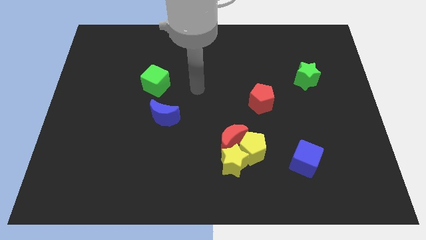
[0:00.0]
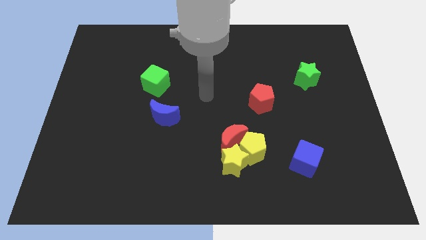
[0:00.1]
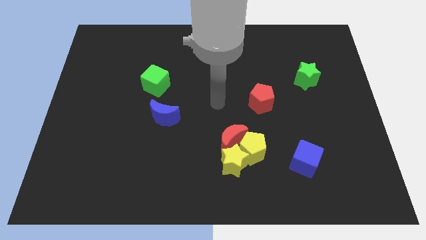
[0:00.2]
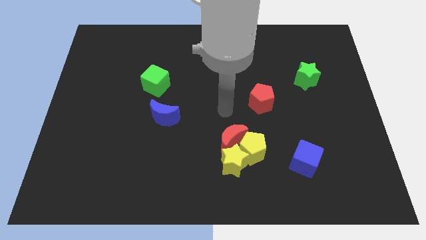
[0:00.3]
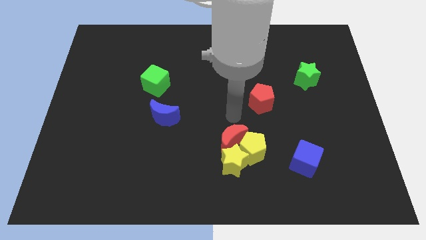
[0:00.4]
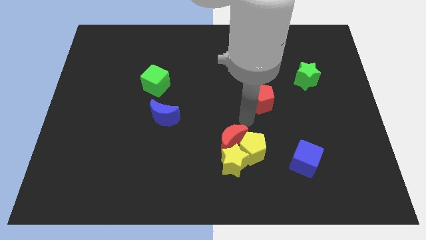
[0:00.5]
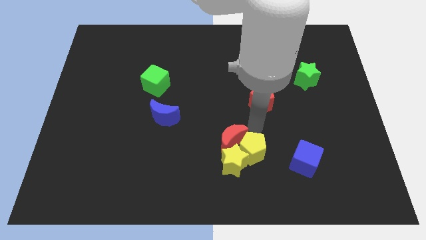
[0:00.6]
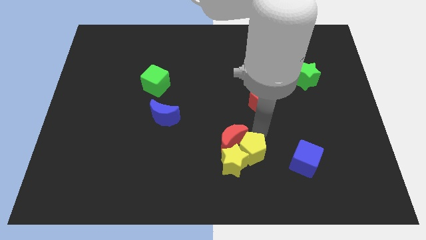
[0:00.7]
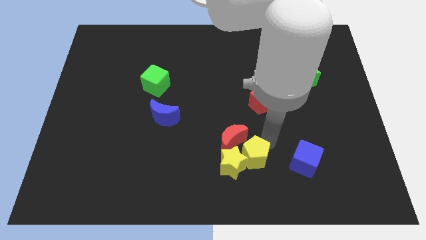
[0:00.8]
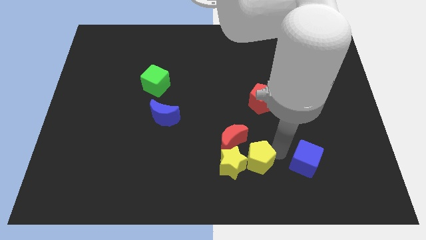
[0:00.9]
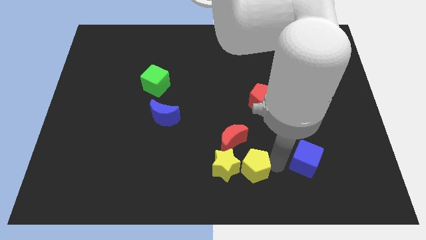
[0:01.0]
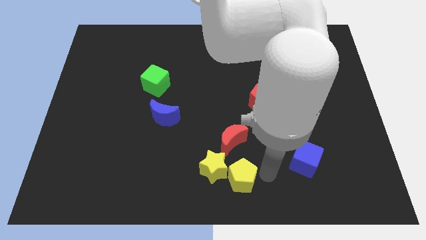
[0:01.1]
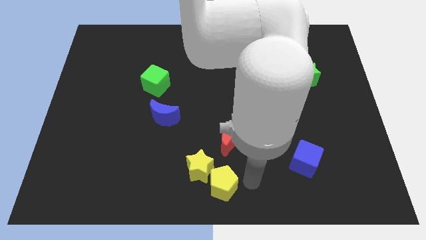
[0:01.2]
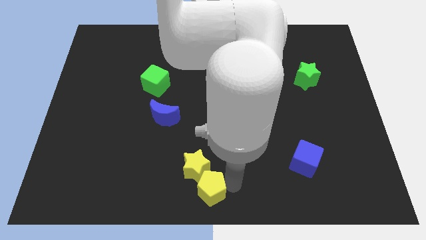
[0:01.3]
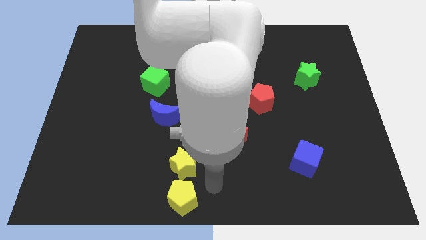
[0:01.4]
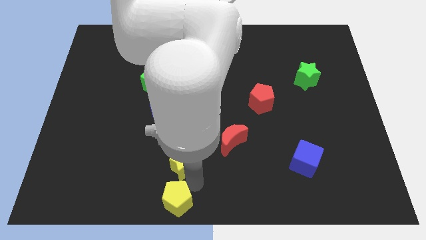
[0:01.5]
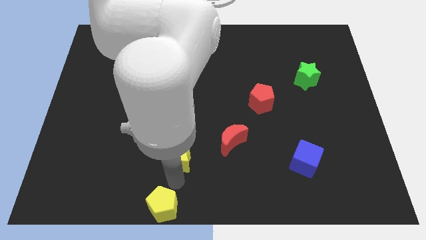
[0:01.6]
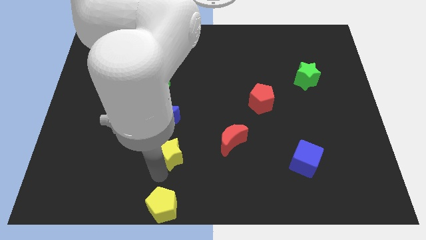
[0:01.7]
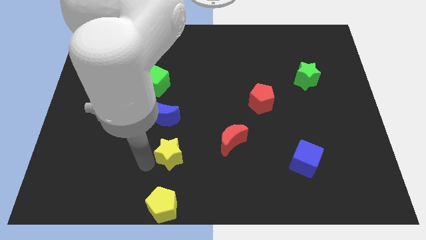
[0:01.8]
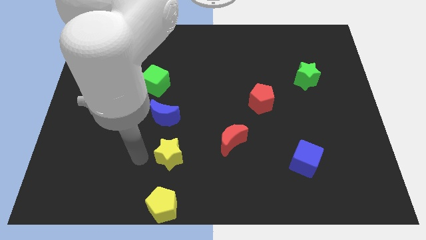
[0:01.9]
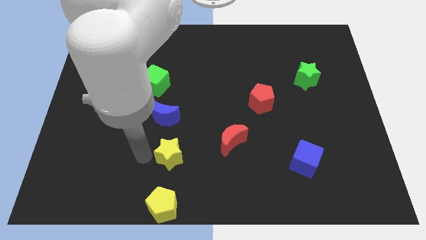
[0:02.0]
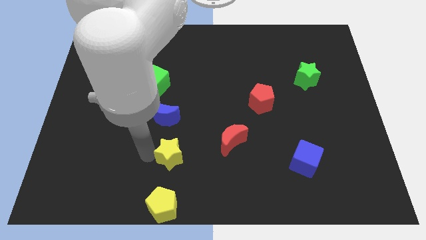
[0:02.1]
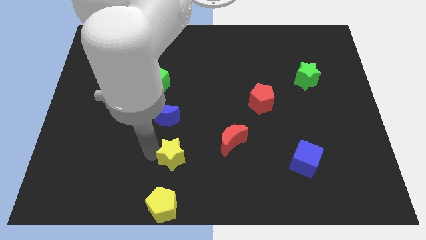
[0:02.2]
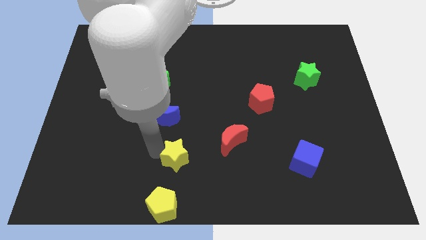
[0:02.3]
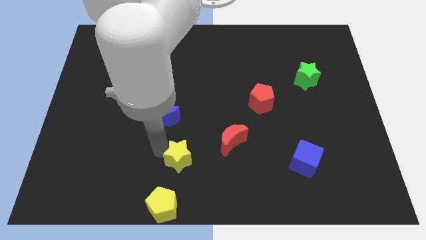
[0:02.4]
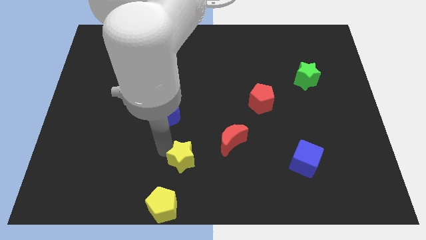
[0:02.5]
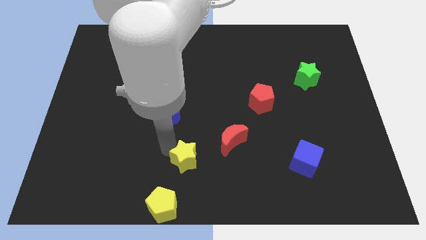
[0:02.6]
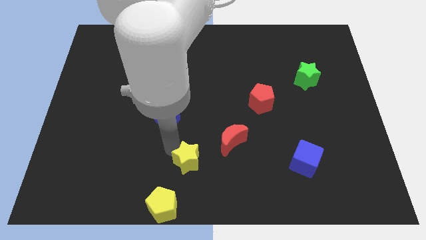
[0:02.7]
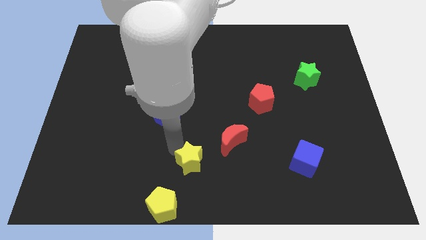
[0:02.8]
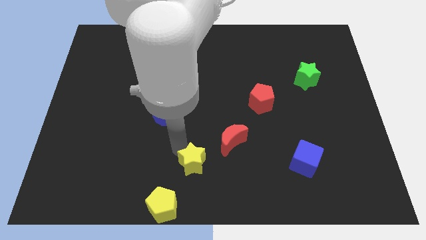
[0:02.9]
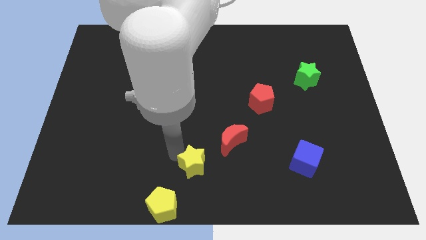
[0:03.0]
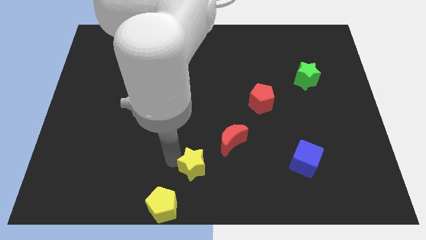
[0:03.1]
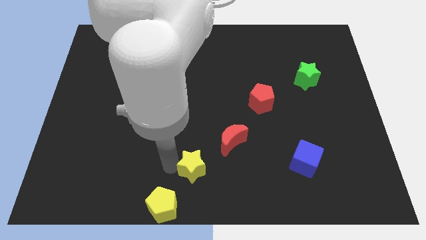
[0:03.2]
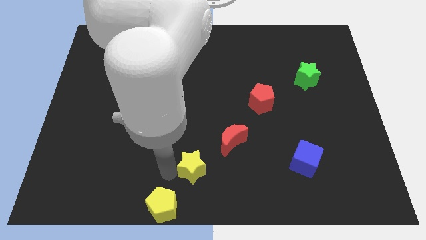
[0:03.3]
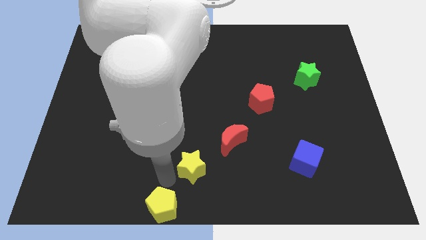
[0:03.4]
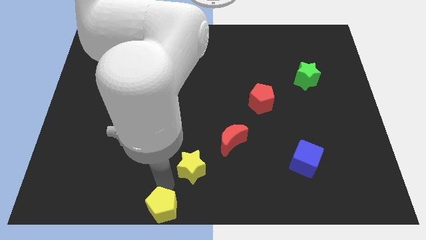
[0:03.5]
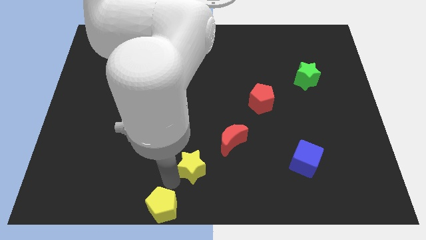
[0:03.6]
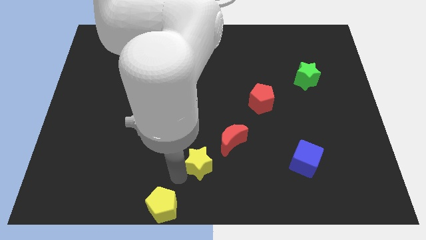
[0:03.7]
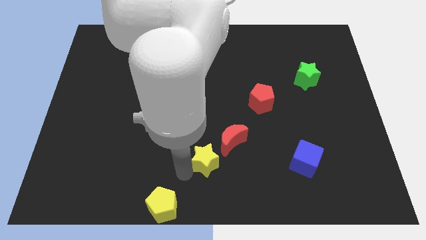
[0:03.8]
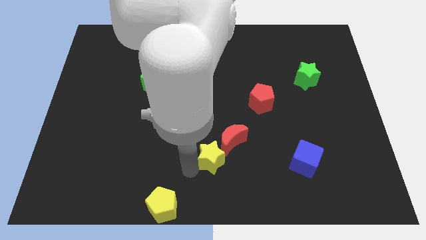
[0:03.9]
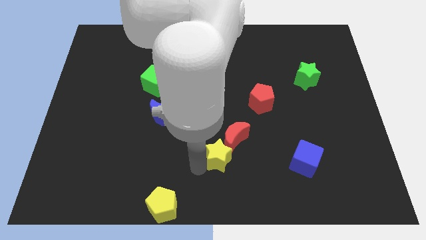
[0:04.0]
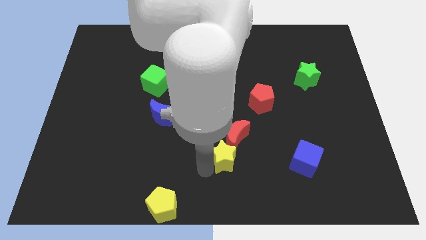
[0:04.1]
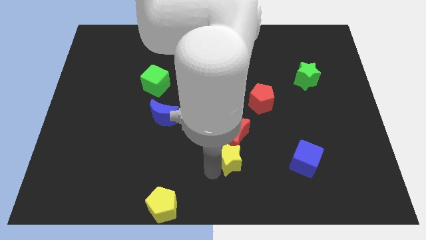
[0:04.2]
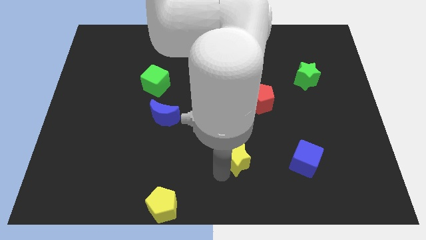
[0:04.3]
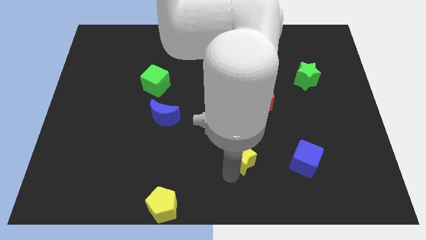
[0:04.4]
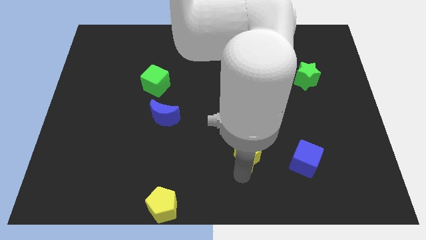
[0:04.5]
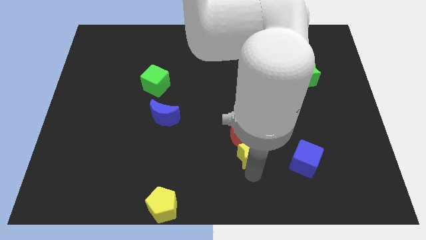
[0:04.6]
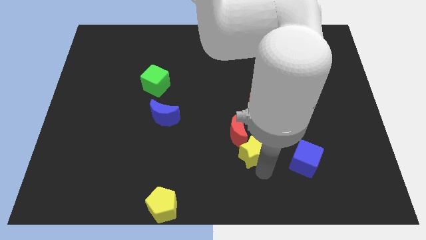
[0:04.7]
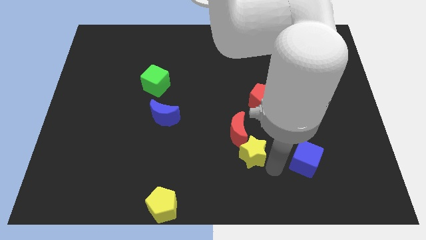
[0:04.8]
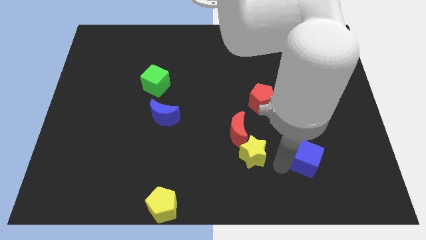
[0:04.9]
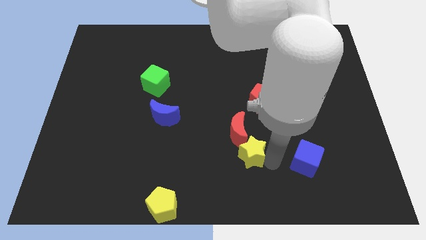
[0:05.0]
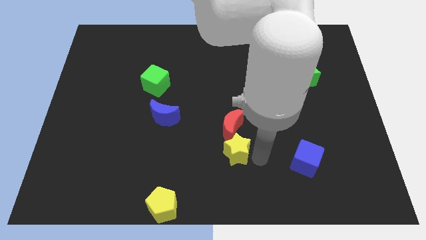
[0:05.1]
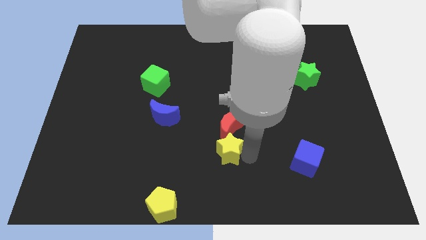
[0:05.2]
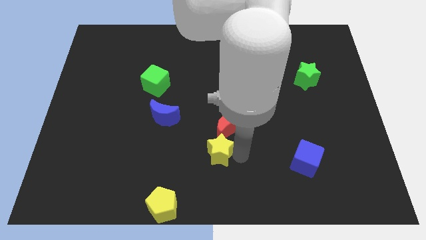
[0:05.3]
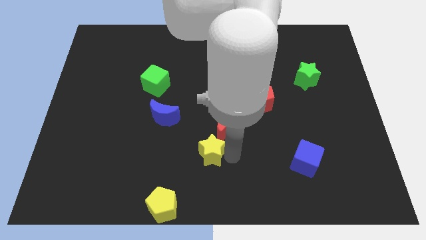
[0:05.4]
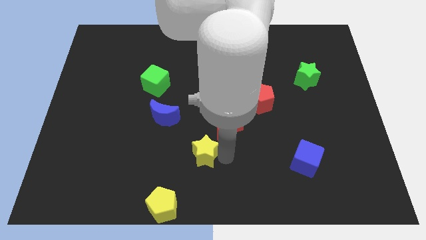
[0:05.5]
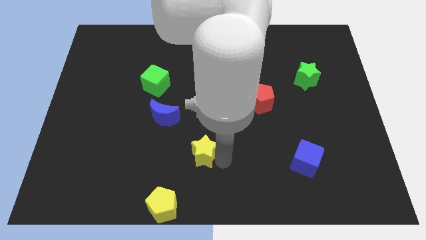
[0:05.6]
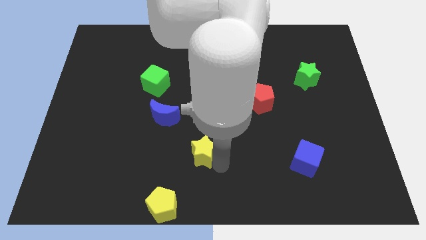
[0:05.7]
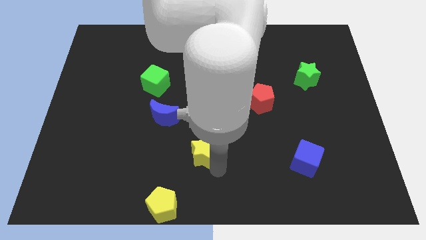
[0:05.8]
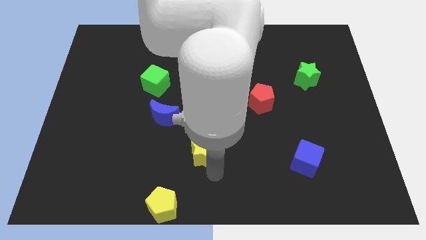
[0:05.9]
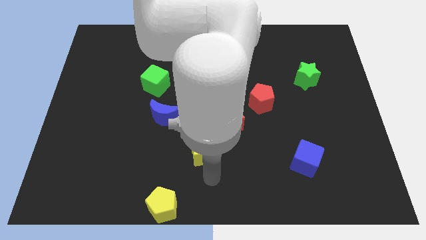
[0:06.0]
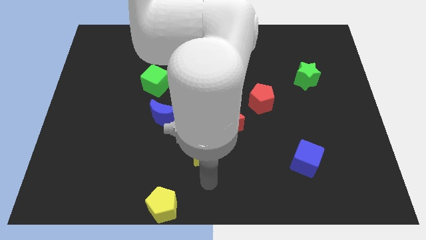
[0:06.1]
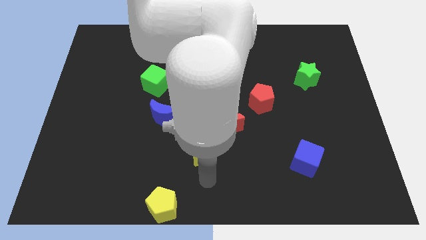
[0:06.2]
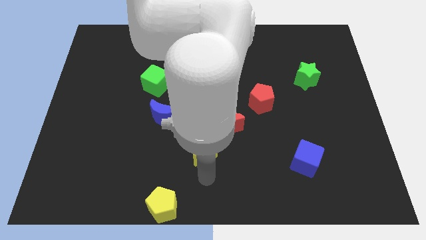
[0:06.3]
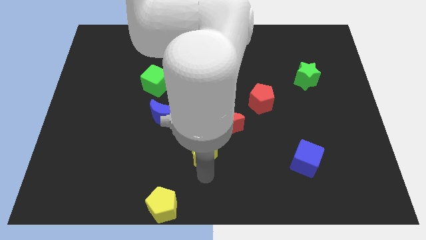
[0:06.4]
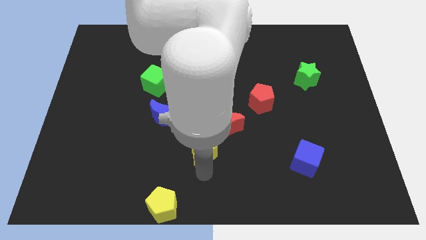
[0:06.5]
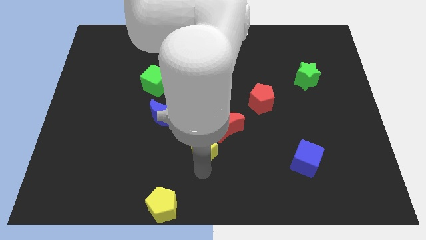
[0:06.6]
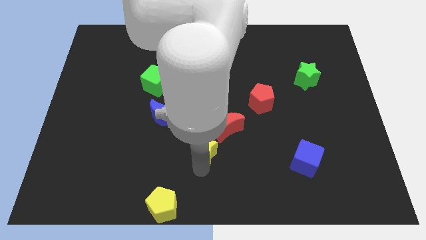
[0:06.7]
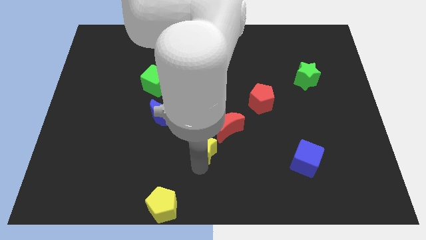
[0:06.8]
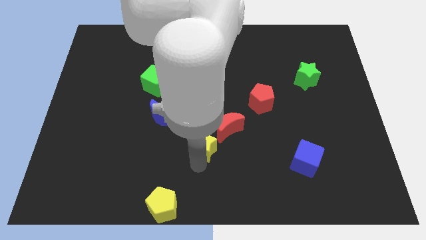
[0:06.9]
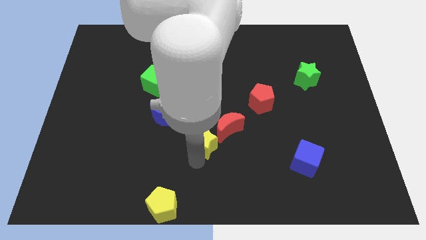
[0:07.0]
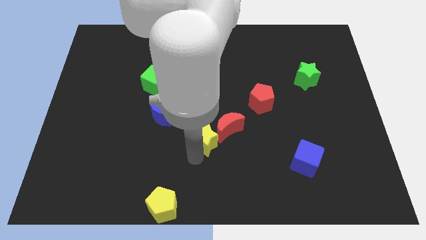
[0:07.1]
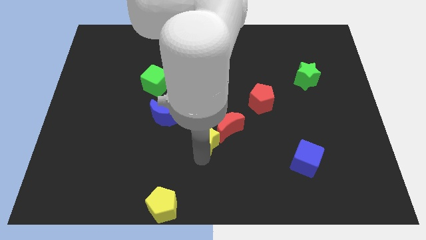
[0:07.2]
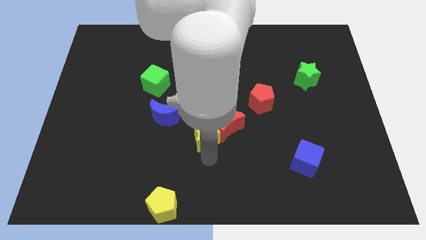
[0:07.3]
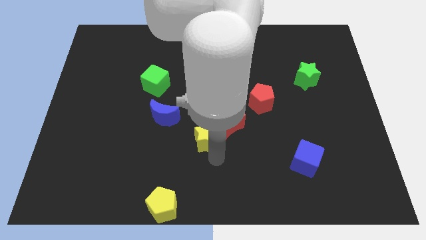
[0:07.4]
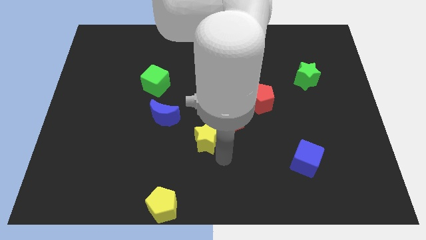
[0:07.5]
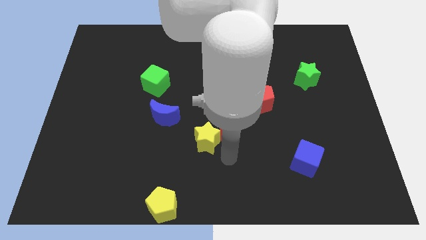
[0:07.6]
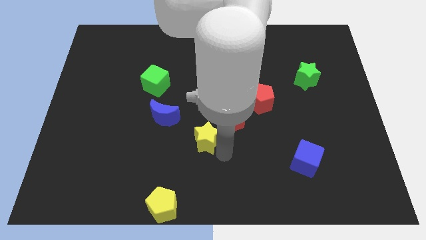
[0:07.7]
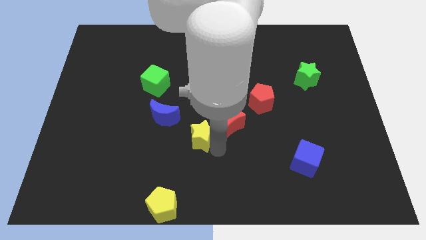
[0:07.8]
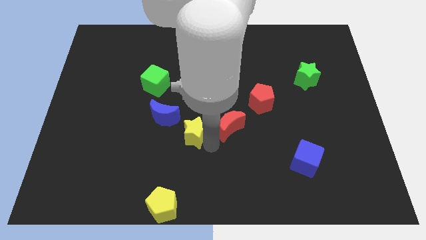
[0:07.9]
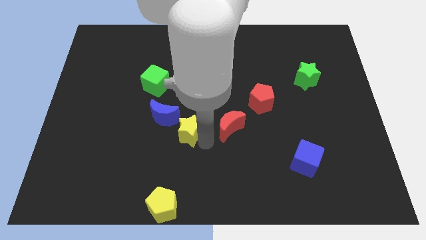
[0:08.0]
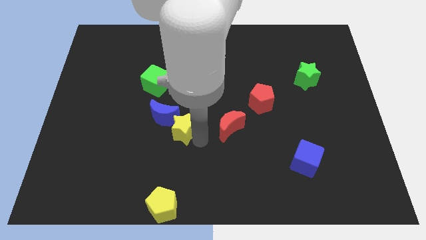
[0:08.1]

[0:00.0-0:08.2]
slide the yellow star towards the blue moon
